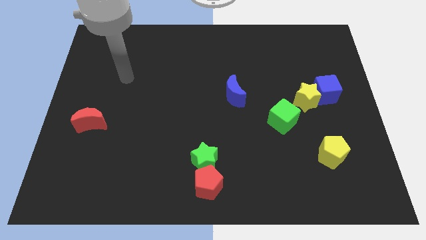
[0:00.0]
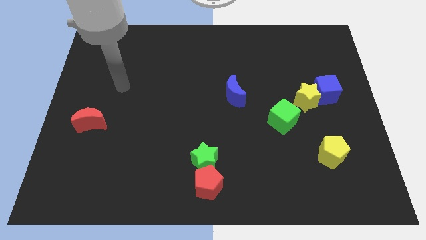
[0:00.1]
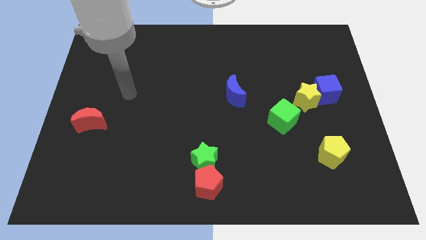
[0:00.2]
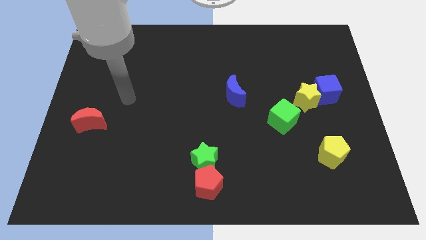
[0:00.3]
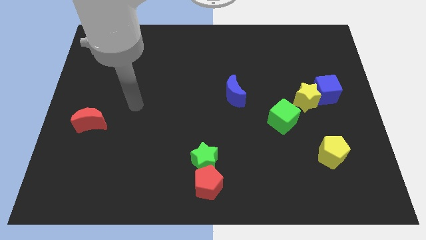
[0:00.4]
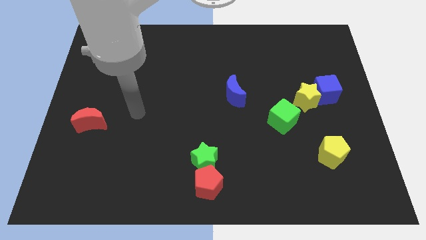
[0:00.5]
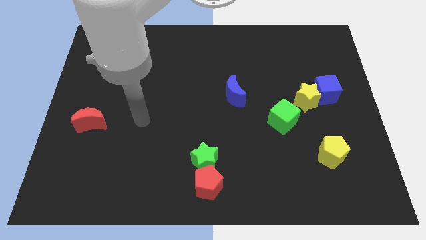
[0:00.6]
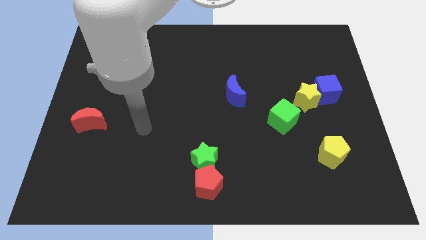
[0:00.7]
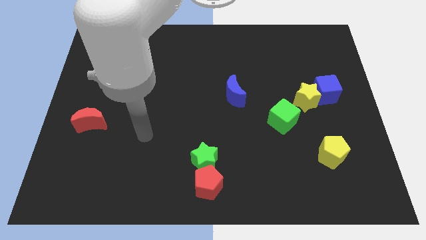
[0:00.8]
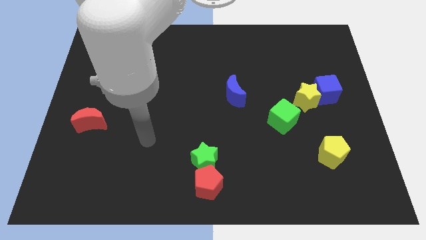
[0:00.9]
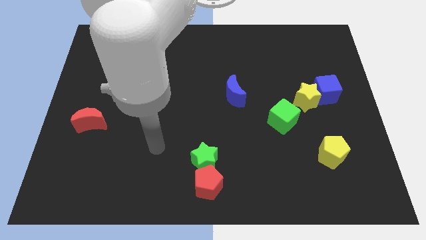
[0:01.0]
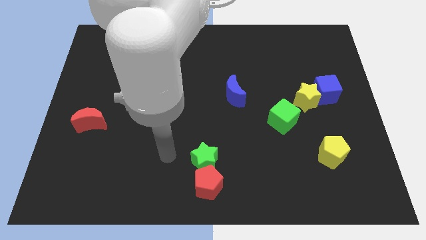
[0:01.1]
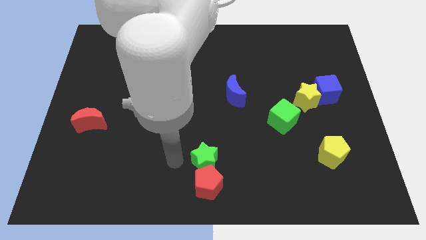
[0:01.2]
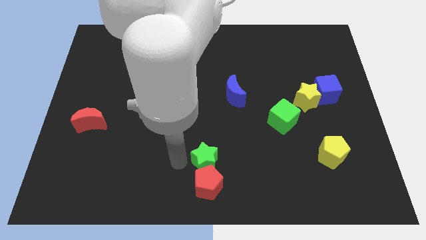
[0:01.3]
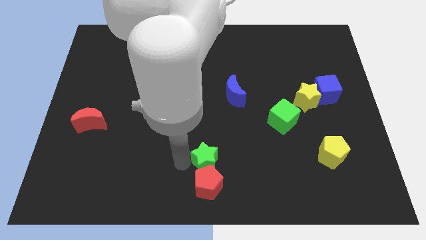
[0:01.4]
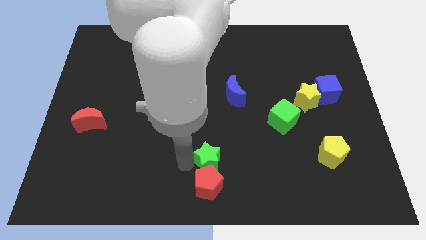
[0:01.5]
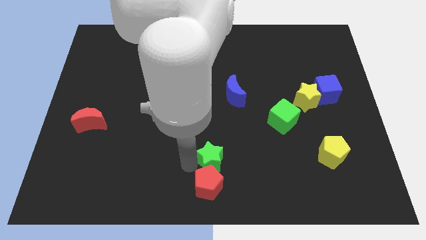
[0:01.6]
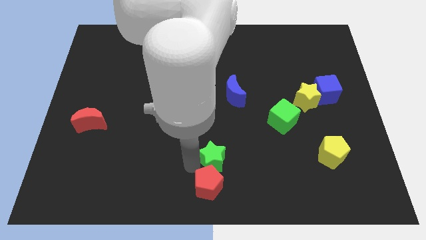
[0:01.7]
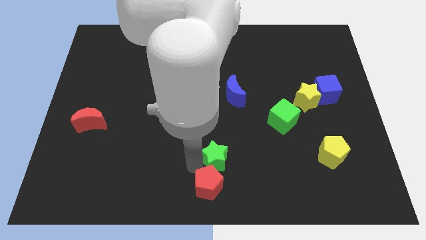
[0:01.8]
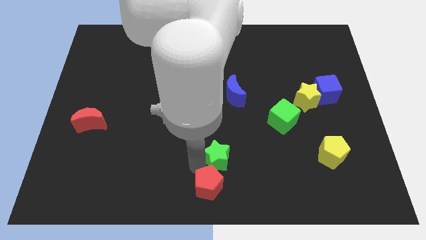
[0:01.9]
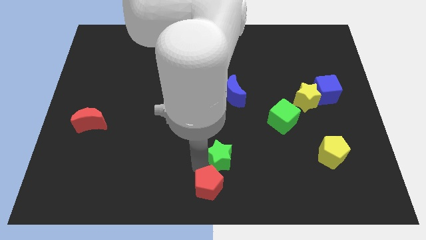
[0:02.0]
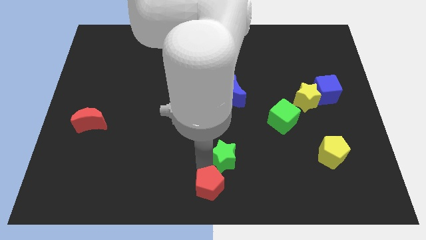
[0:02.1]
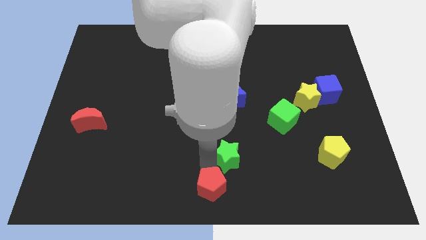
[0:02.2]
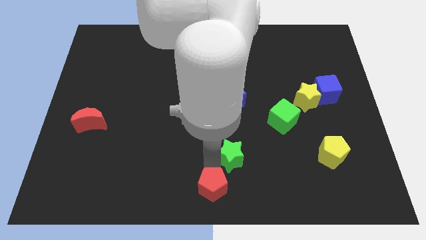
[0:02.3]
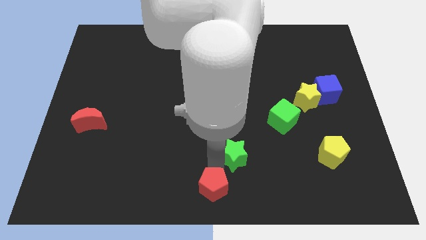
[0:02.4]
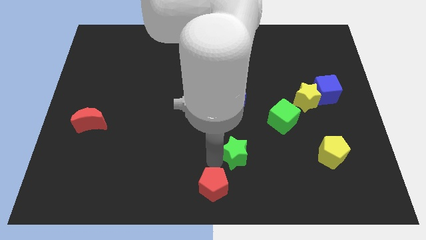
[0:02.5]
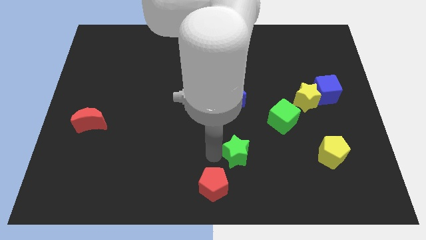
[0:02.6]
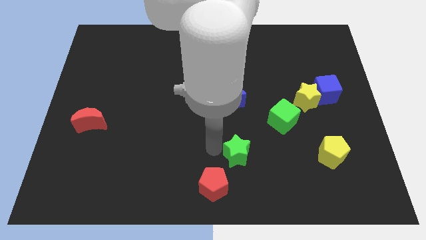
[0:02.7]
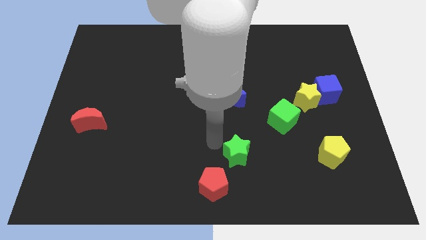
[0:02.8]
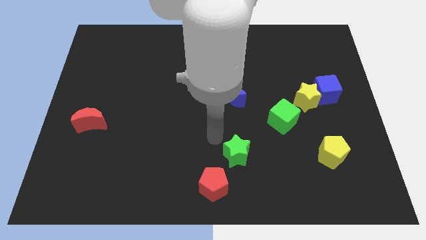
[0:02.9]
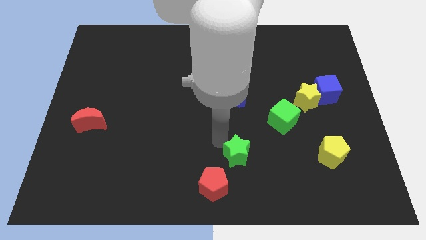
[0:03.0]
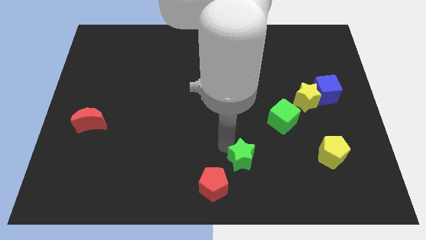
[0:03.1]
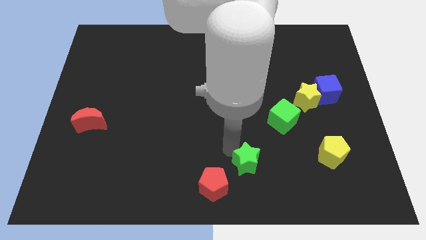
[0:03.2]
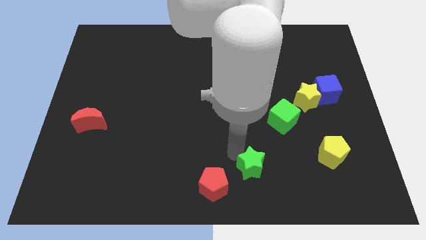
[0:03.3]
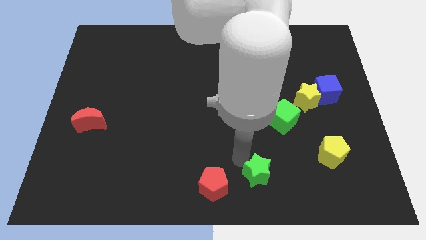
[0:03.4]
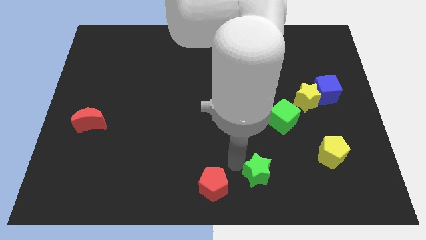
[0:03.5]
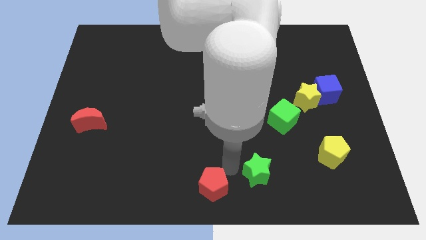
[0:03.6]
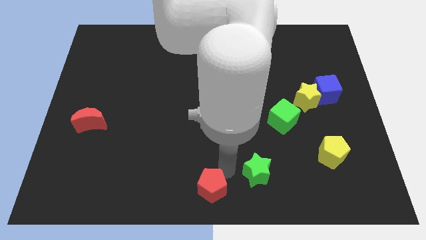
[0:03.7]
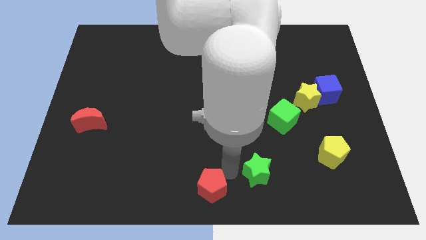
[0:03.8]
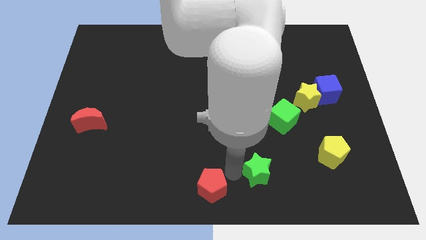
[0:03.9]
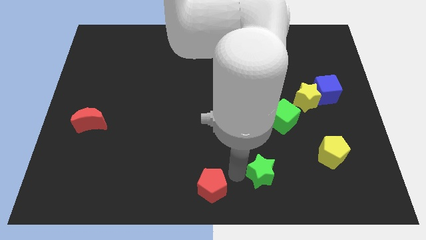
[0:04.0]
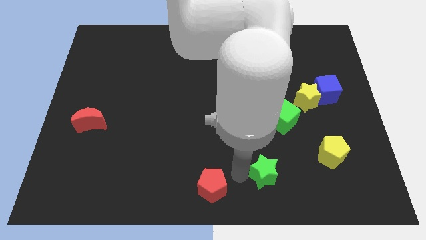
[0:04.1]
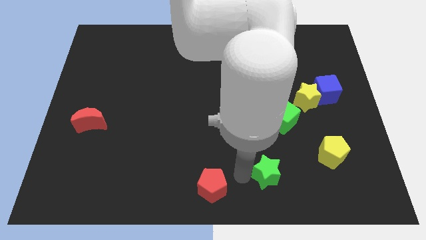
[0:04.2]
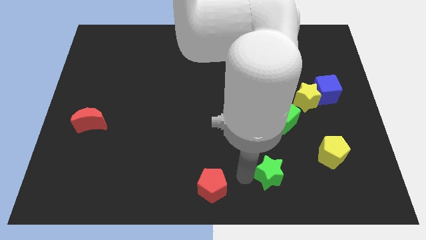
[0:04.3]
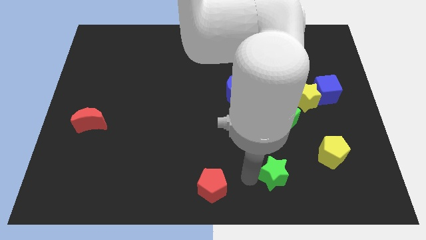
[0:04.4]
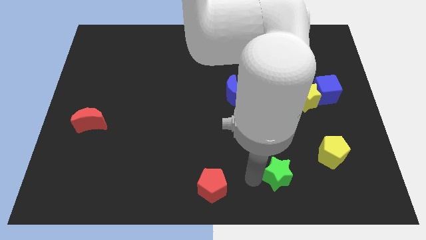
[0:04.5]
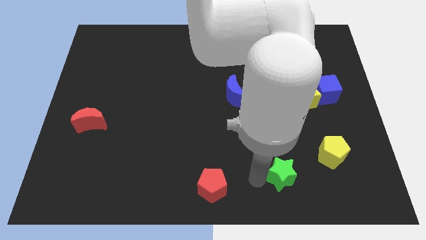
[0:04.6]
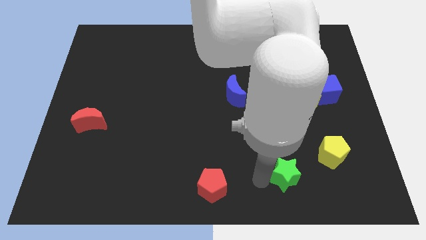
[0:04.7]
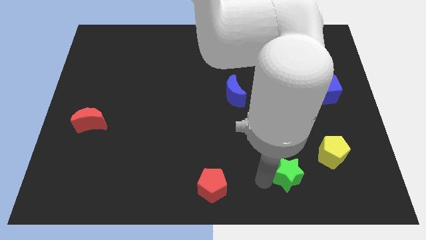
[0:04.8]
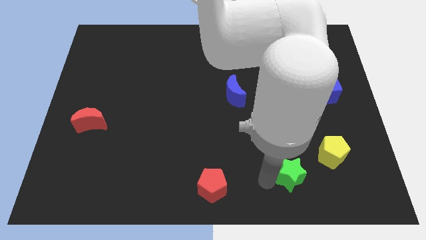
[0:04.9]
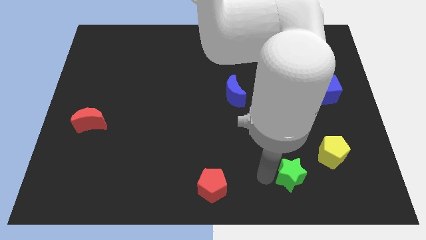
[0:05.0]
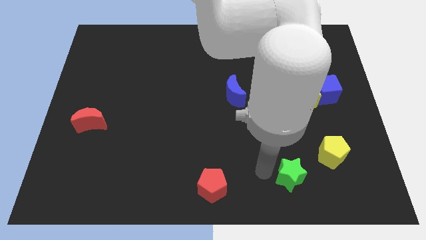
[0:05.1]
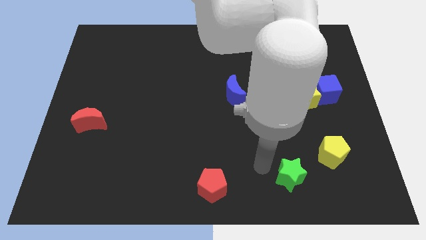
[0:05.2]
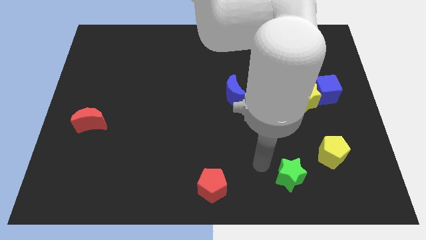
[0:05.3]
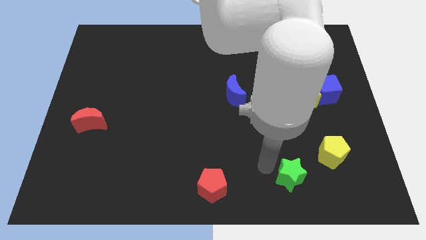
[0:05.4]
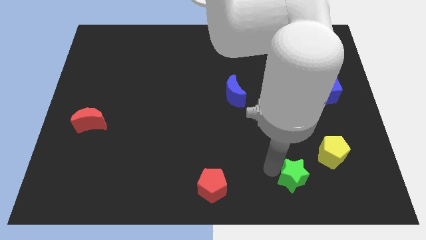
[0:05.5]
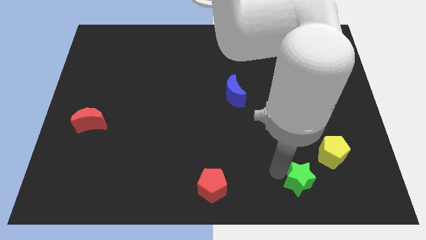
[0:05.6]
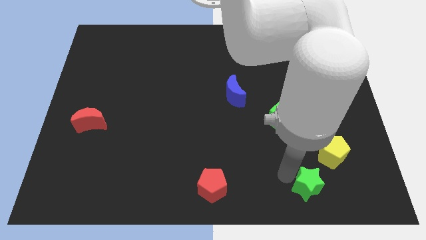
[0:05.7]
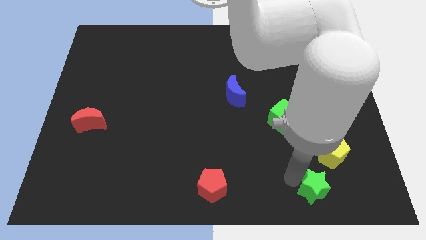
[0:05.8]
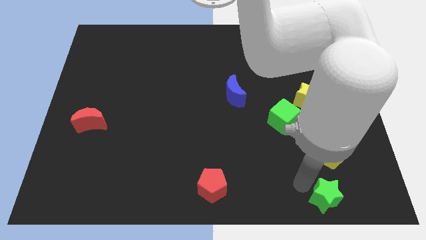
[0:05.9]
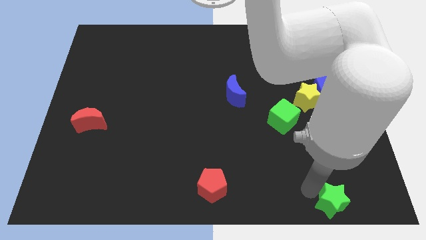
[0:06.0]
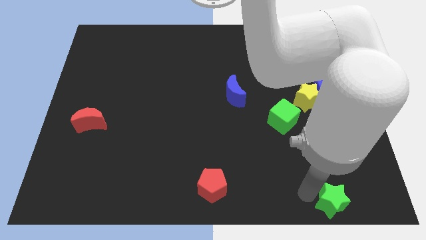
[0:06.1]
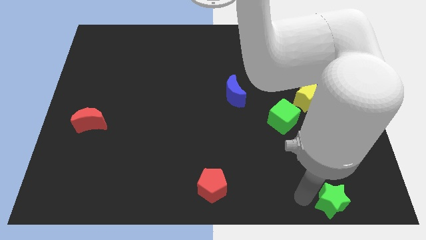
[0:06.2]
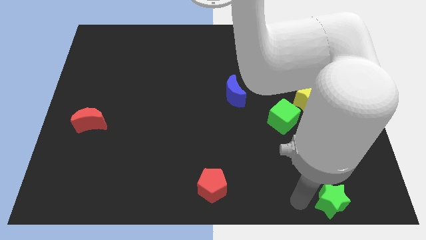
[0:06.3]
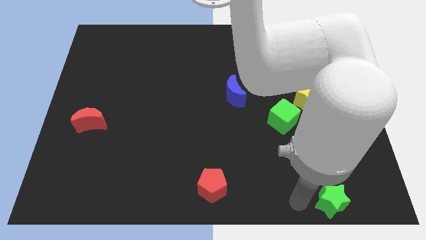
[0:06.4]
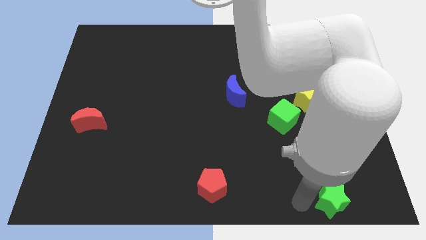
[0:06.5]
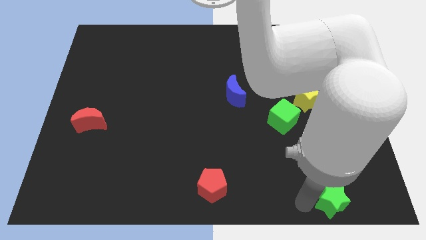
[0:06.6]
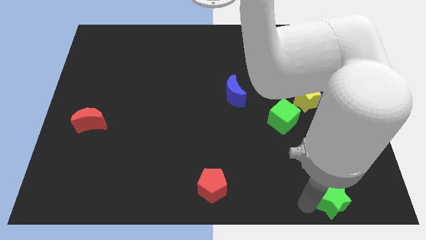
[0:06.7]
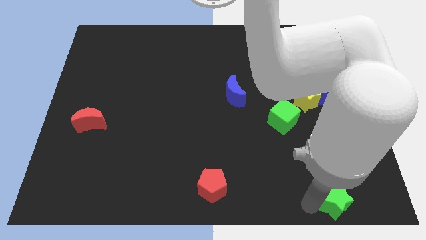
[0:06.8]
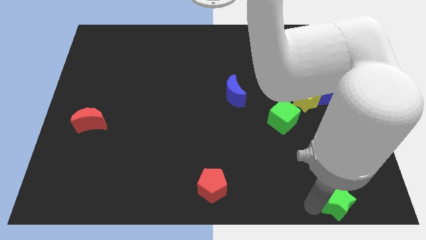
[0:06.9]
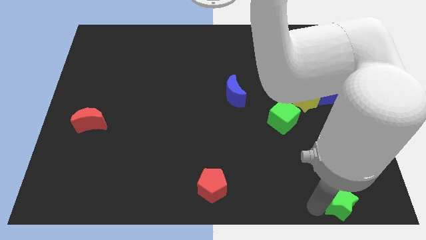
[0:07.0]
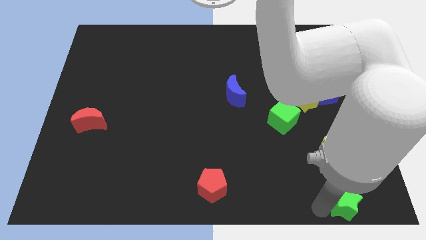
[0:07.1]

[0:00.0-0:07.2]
put the green star to the bottom right corner
